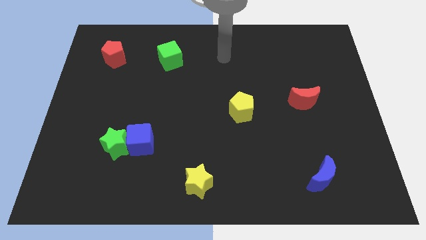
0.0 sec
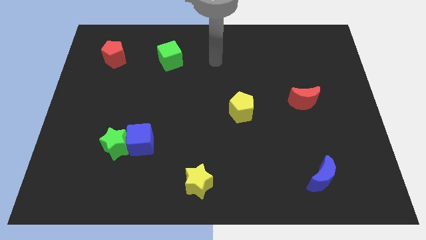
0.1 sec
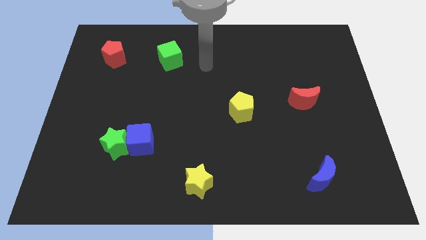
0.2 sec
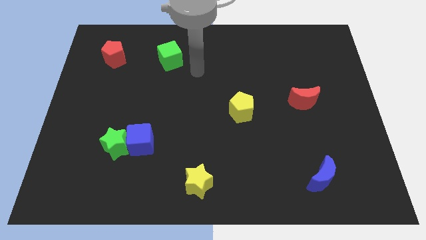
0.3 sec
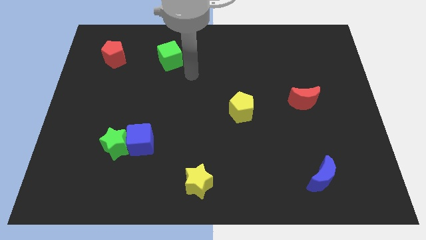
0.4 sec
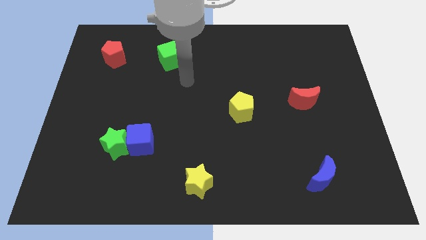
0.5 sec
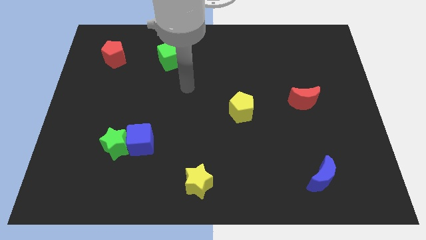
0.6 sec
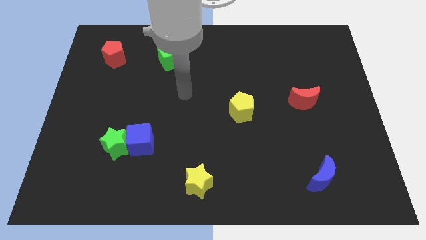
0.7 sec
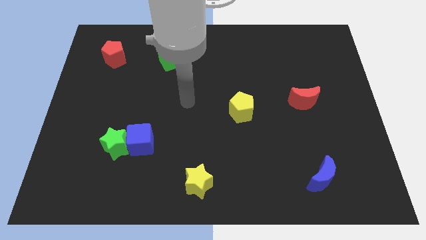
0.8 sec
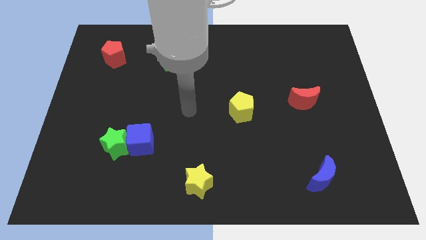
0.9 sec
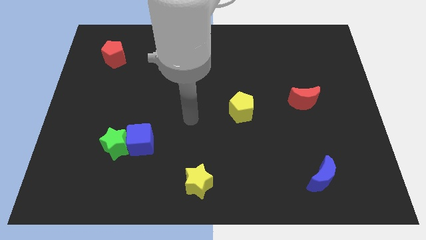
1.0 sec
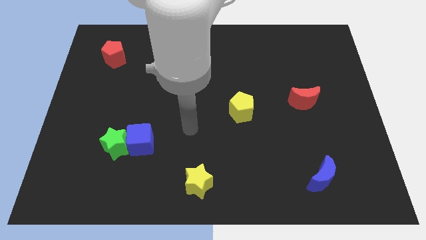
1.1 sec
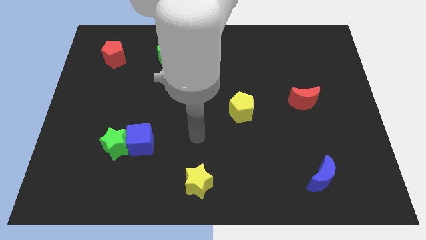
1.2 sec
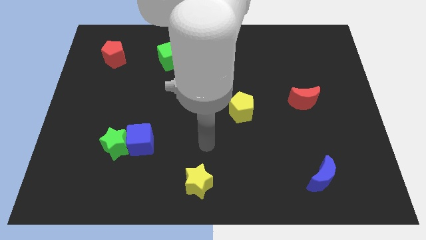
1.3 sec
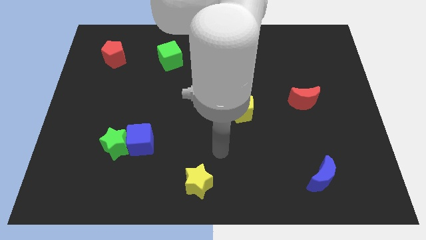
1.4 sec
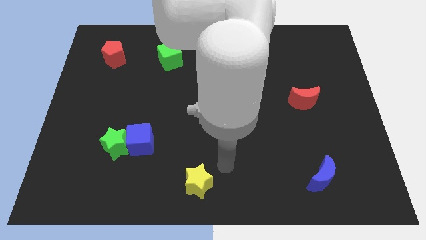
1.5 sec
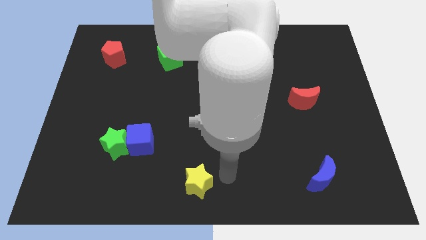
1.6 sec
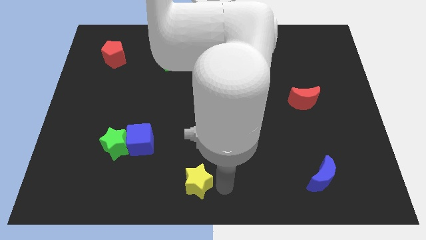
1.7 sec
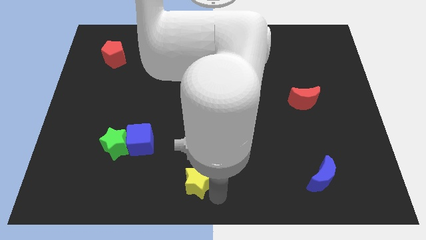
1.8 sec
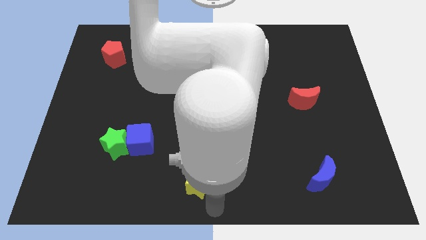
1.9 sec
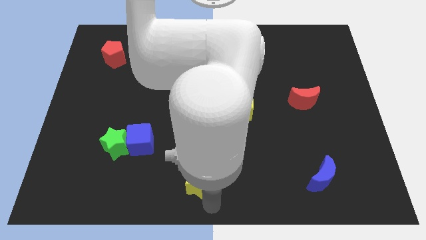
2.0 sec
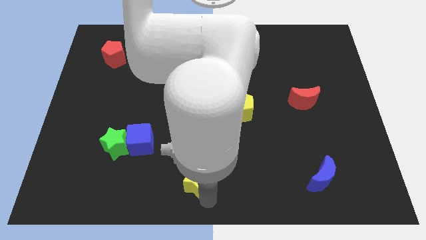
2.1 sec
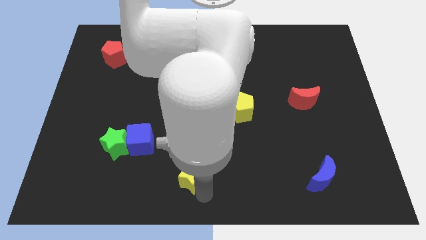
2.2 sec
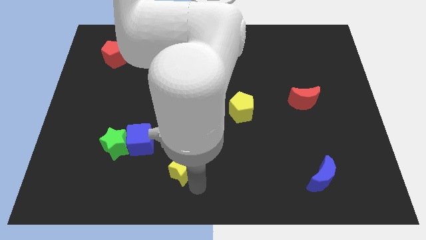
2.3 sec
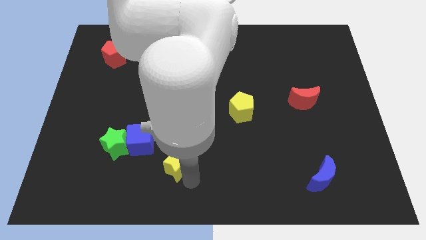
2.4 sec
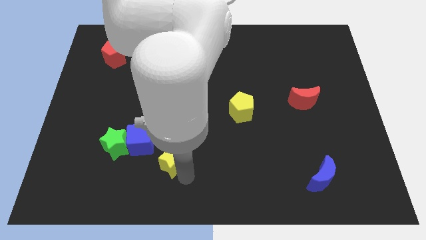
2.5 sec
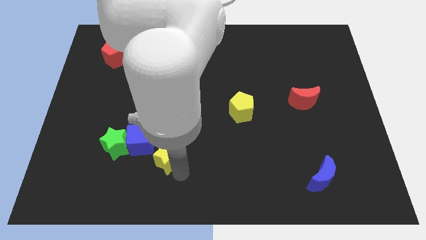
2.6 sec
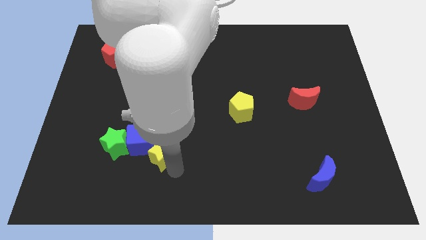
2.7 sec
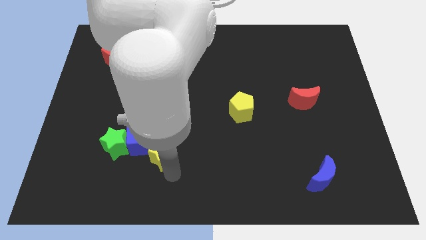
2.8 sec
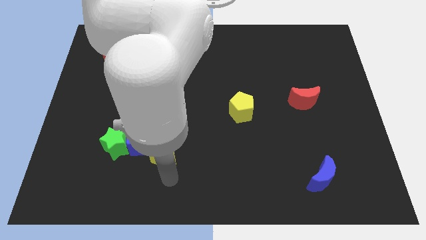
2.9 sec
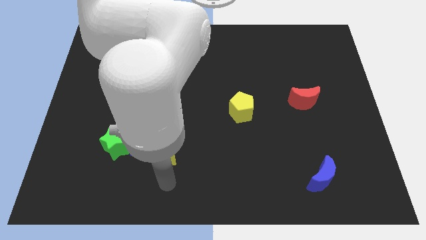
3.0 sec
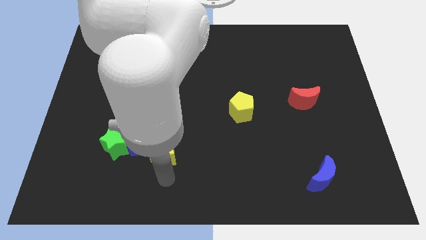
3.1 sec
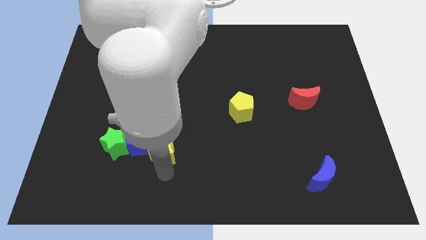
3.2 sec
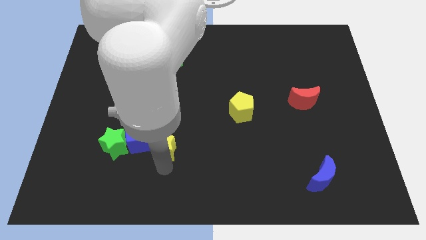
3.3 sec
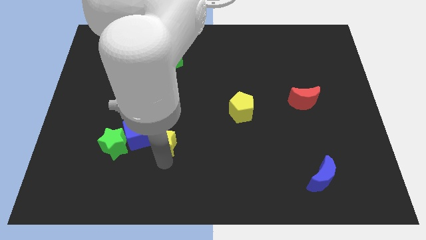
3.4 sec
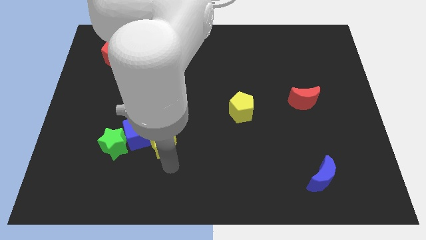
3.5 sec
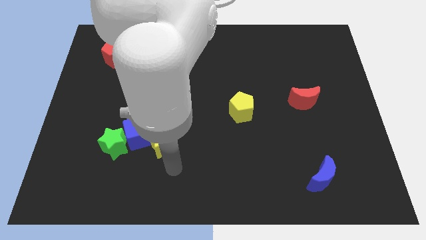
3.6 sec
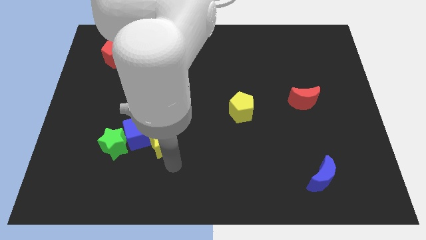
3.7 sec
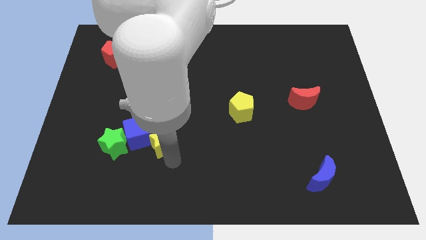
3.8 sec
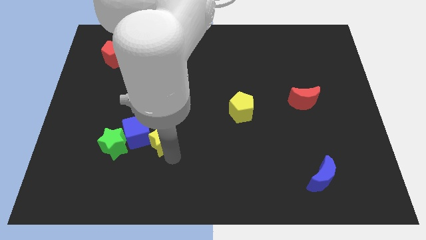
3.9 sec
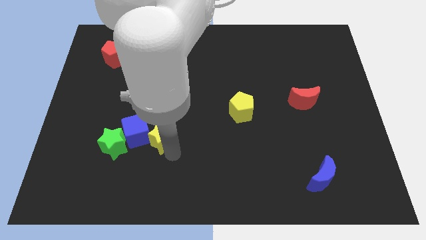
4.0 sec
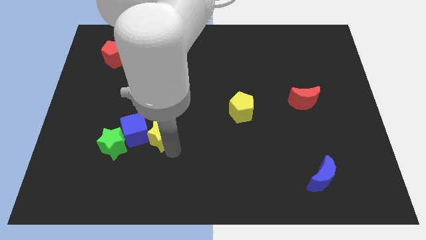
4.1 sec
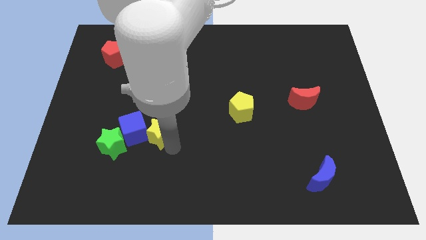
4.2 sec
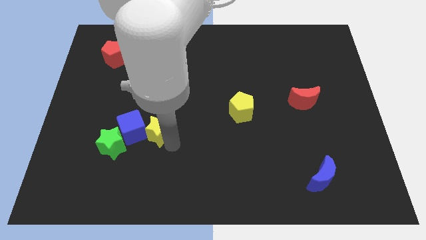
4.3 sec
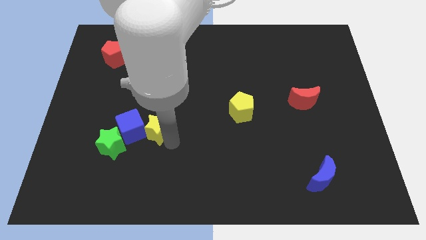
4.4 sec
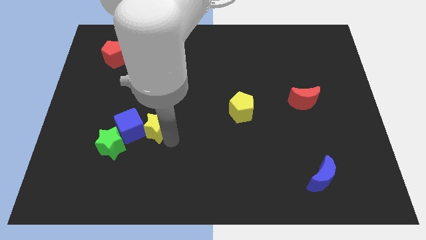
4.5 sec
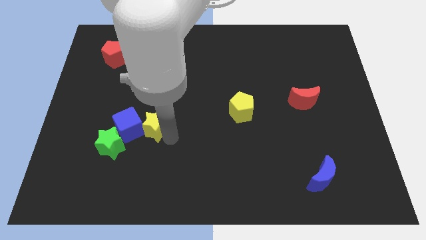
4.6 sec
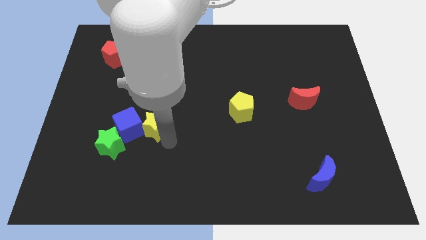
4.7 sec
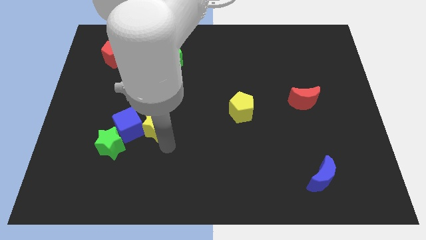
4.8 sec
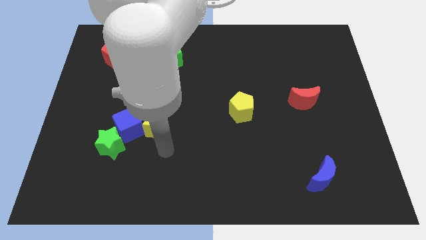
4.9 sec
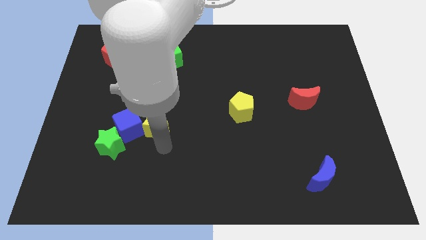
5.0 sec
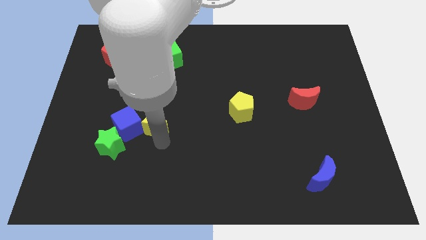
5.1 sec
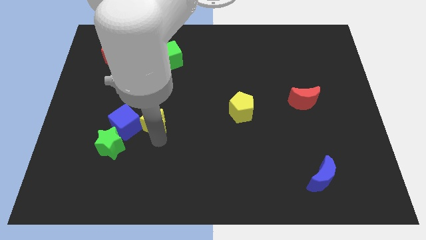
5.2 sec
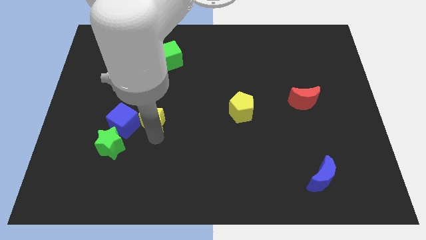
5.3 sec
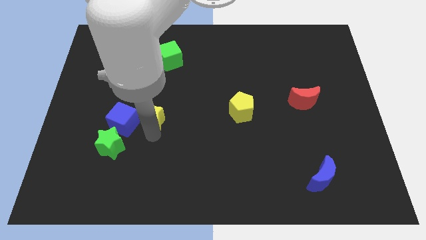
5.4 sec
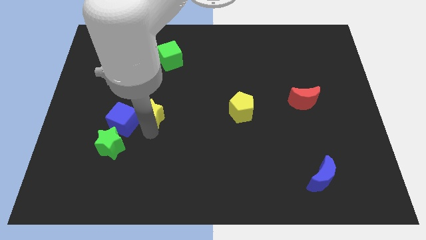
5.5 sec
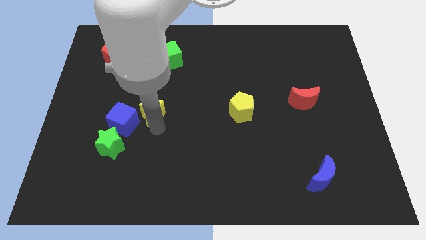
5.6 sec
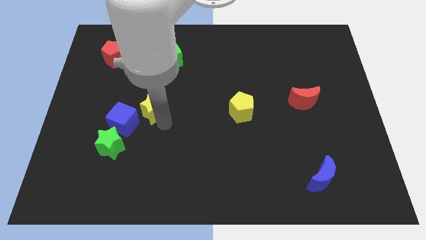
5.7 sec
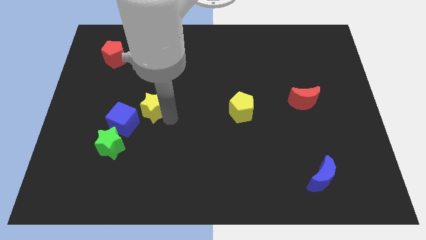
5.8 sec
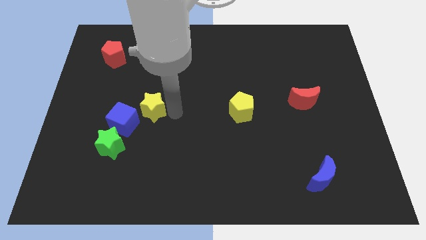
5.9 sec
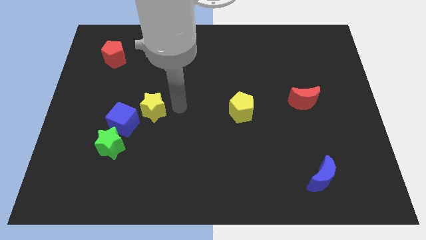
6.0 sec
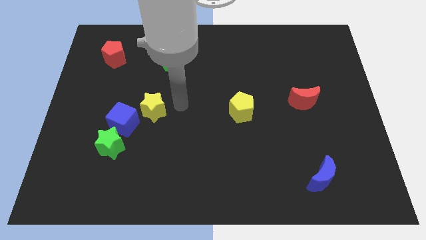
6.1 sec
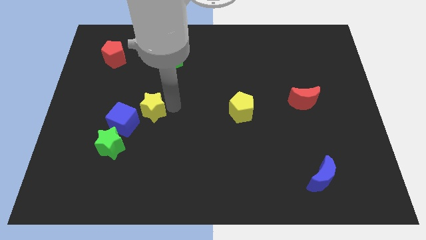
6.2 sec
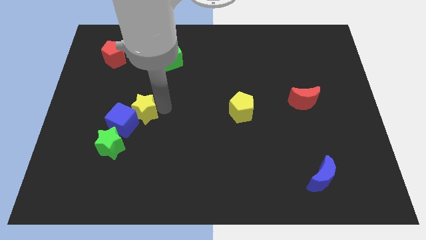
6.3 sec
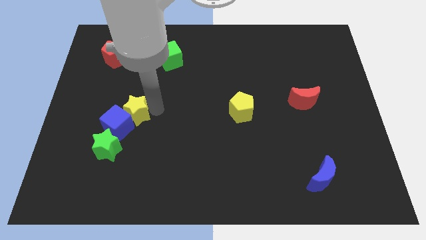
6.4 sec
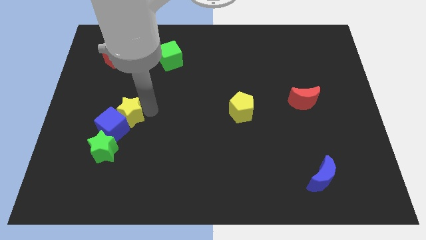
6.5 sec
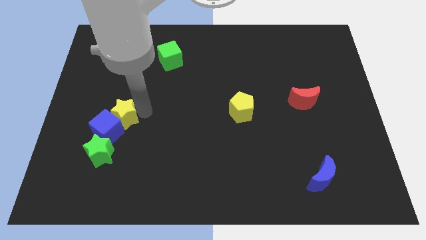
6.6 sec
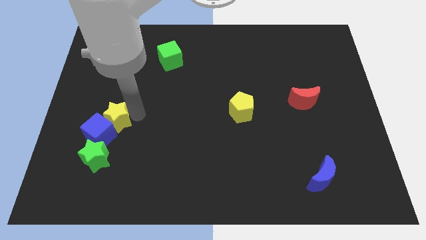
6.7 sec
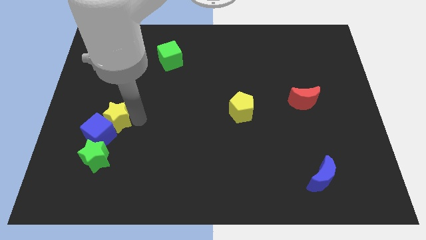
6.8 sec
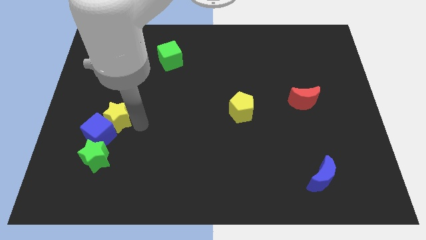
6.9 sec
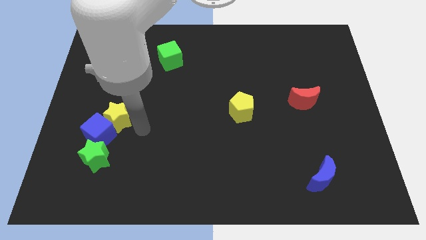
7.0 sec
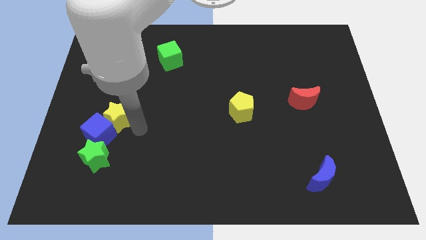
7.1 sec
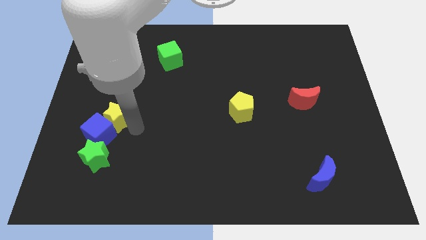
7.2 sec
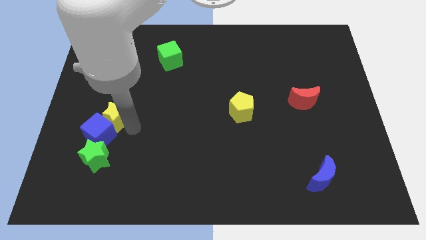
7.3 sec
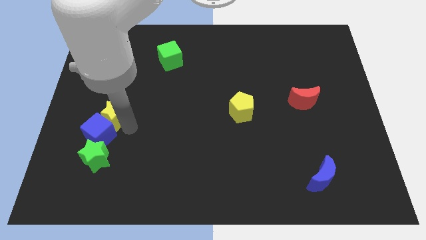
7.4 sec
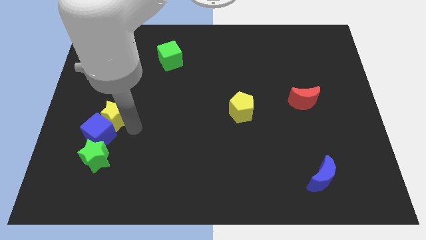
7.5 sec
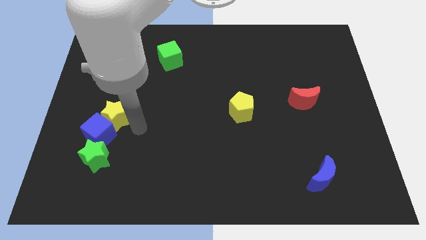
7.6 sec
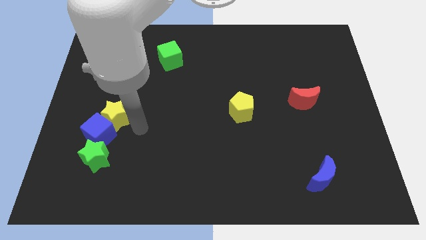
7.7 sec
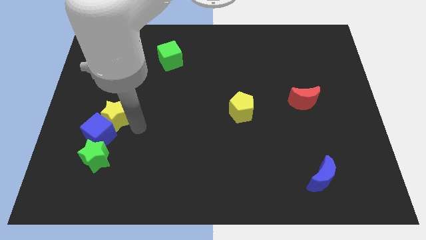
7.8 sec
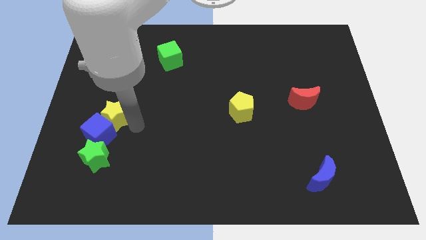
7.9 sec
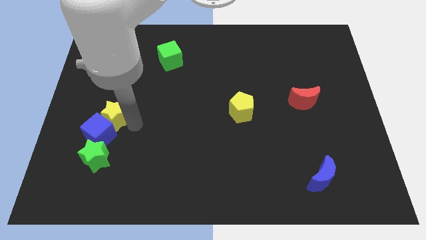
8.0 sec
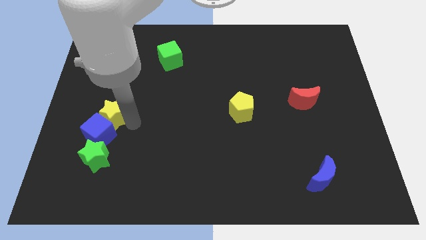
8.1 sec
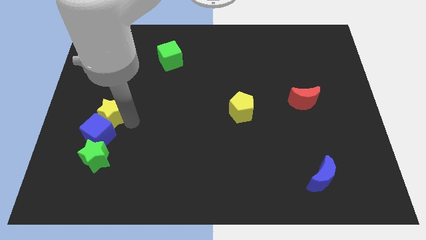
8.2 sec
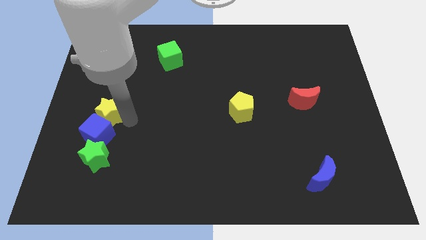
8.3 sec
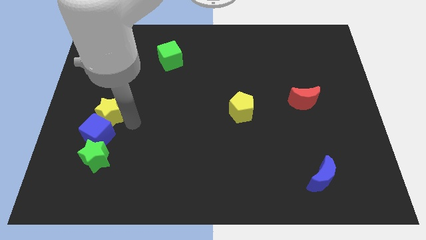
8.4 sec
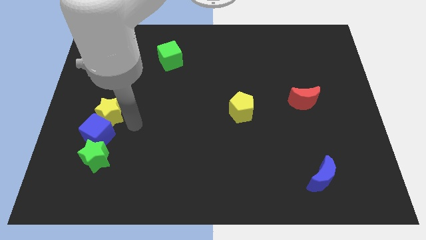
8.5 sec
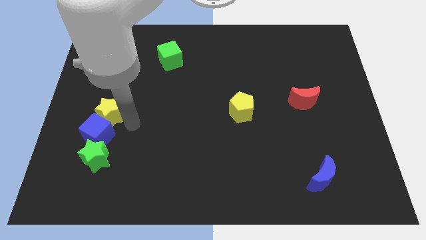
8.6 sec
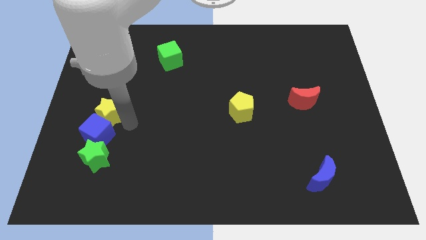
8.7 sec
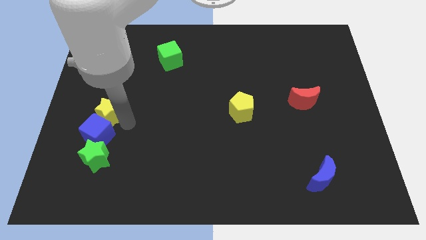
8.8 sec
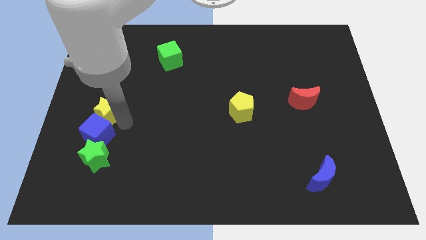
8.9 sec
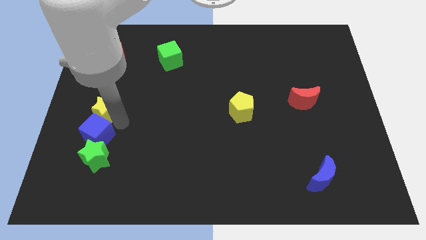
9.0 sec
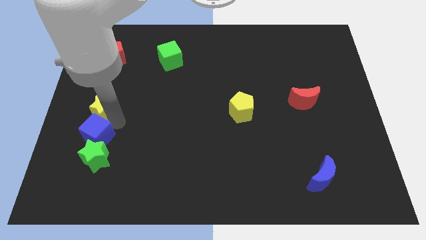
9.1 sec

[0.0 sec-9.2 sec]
put the yellow star to the left side of the board
